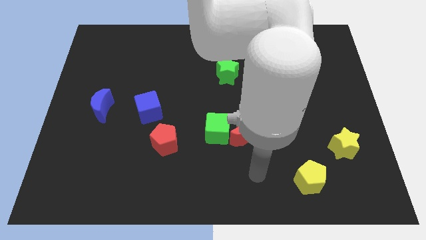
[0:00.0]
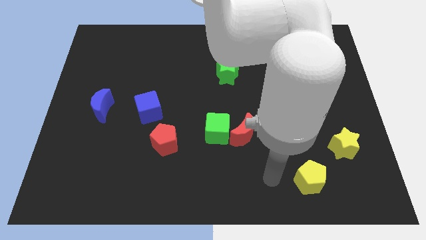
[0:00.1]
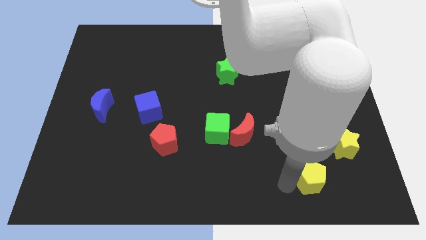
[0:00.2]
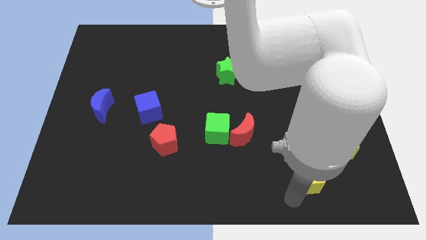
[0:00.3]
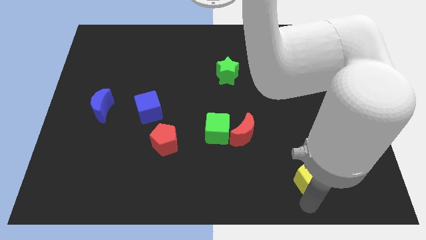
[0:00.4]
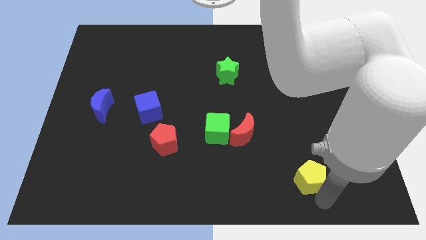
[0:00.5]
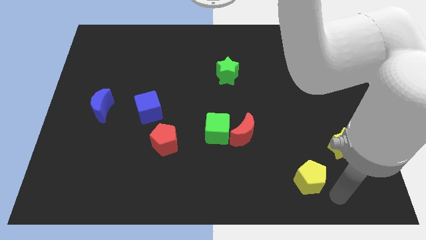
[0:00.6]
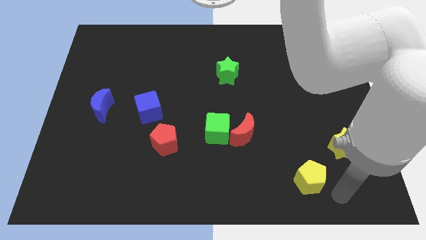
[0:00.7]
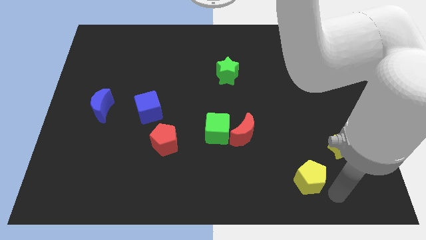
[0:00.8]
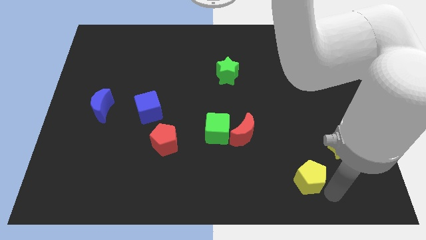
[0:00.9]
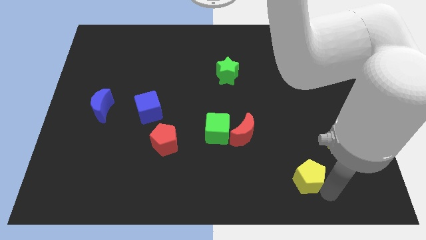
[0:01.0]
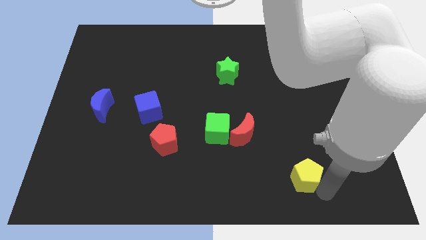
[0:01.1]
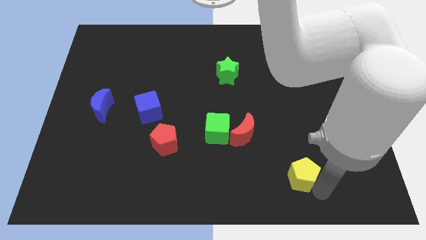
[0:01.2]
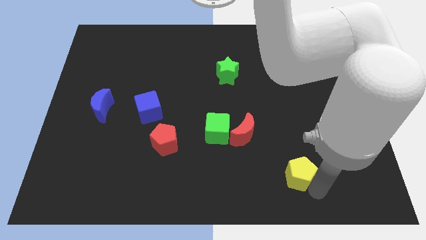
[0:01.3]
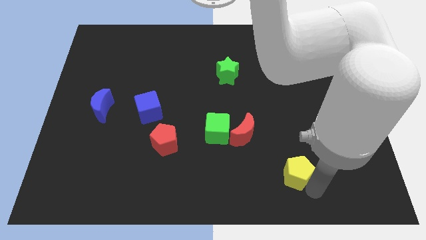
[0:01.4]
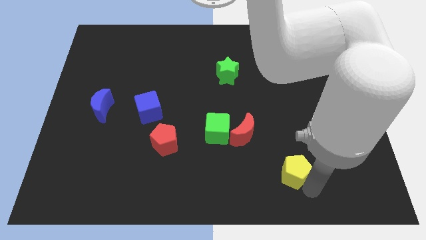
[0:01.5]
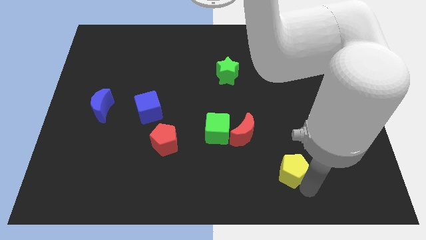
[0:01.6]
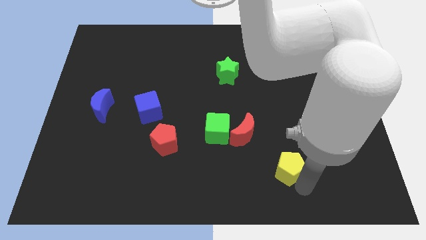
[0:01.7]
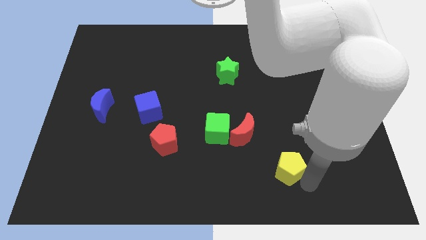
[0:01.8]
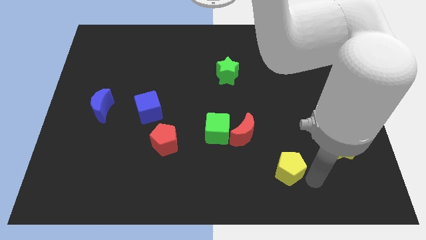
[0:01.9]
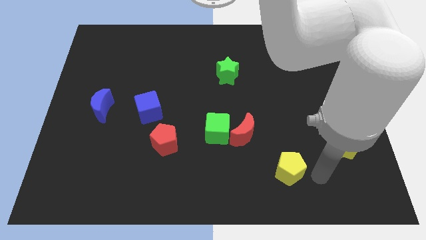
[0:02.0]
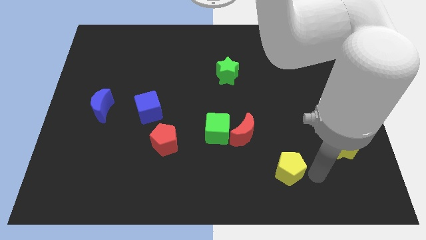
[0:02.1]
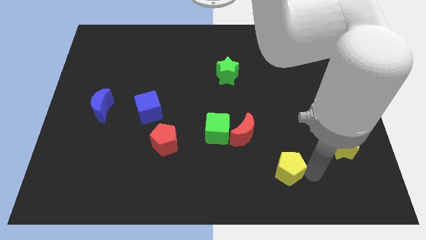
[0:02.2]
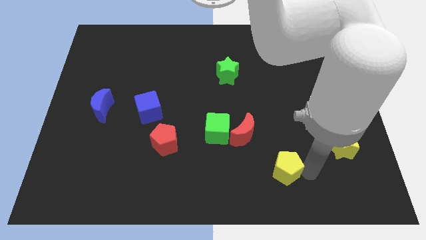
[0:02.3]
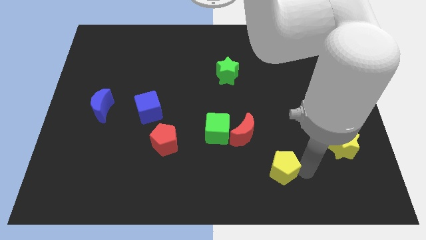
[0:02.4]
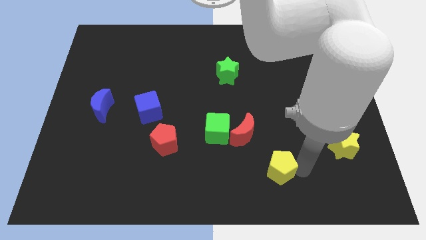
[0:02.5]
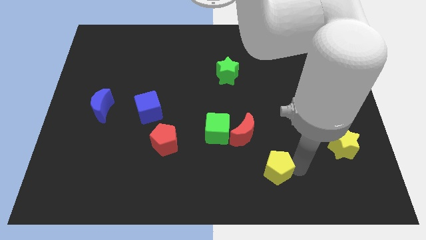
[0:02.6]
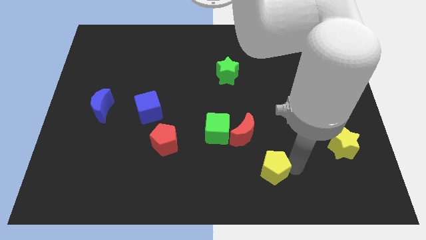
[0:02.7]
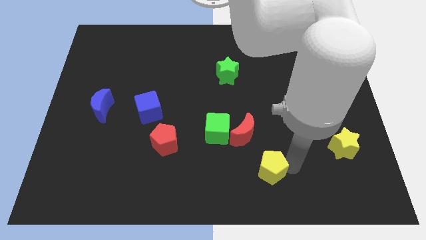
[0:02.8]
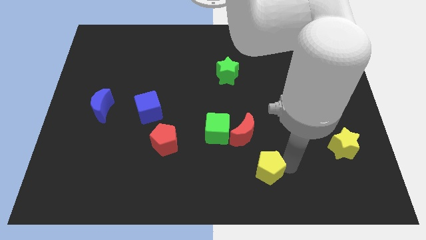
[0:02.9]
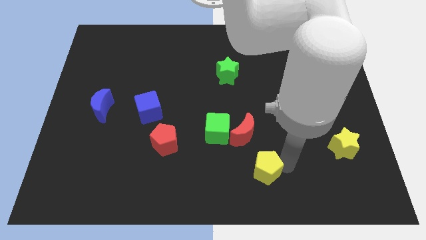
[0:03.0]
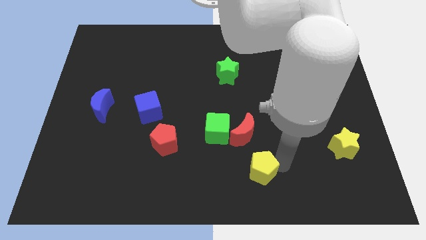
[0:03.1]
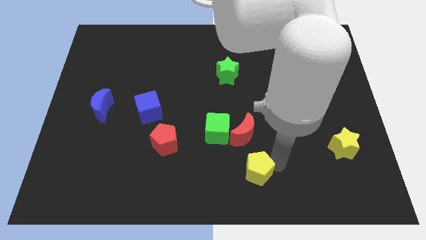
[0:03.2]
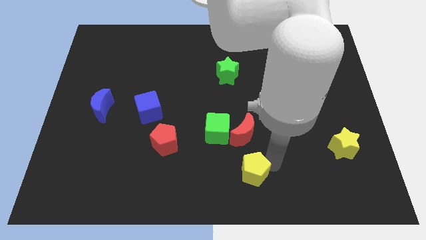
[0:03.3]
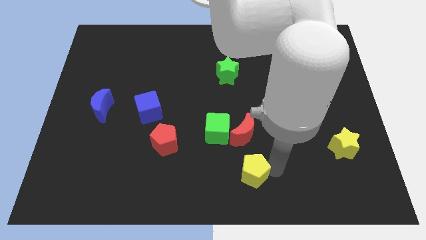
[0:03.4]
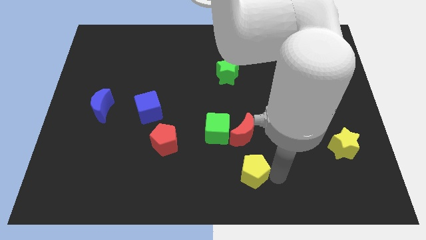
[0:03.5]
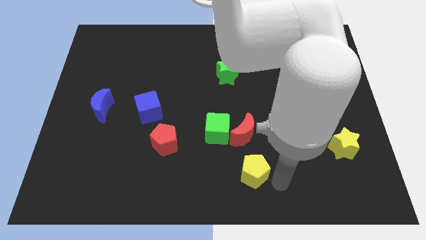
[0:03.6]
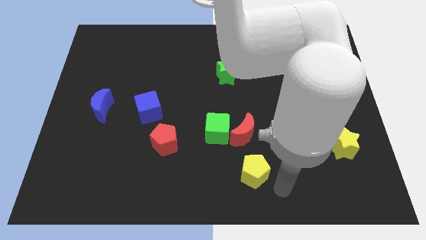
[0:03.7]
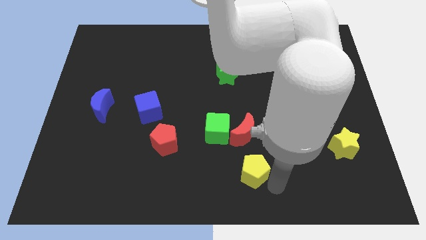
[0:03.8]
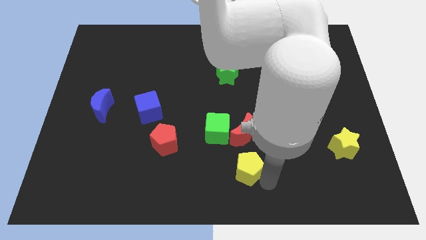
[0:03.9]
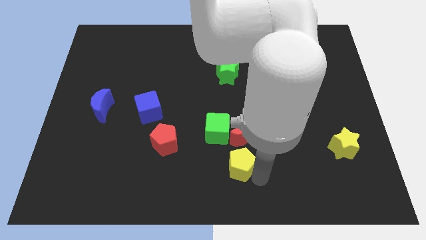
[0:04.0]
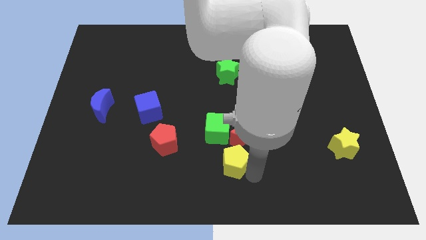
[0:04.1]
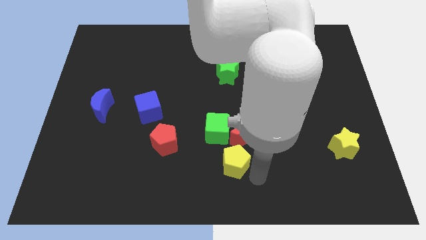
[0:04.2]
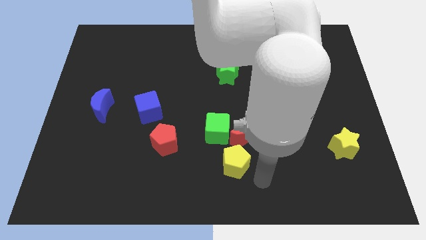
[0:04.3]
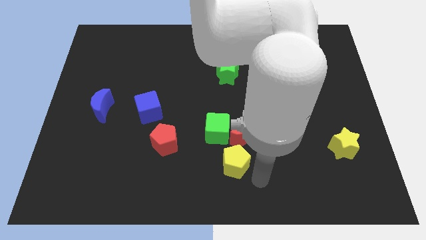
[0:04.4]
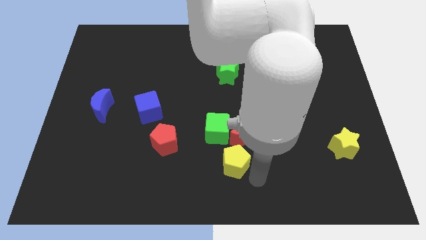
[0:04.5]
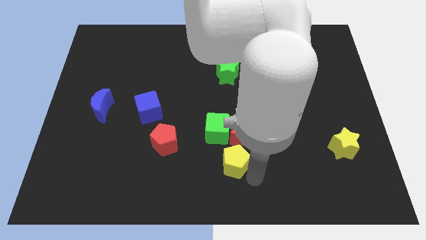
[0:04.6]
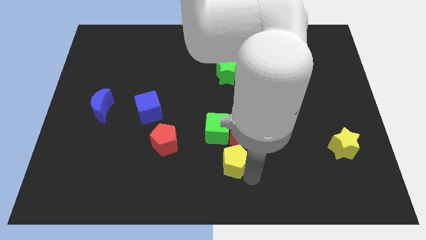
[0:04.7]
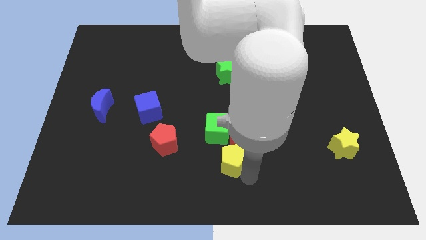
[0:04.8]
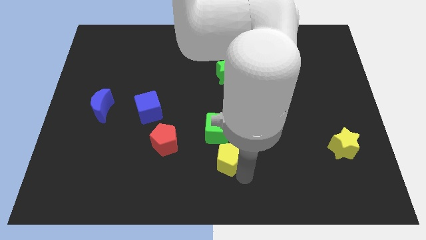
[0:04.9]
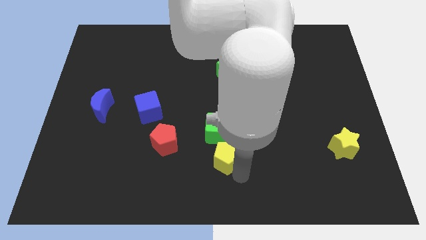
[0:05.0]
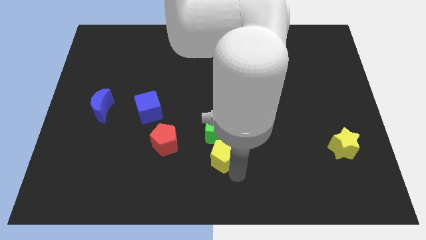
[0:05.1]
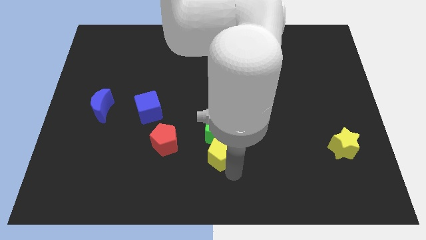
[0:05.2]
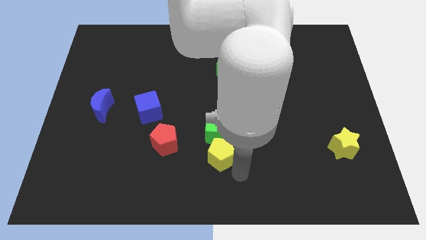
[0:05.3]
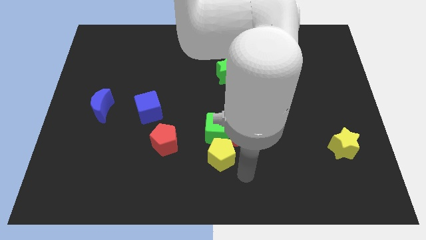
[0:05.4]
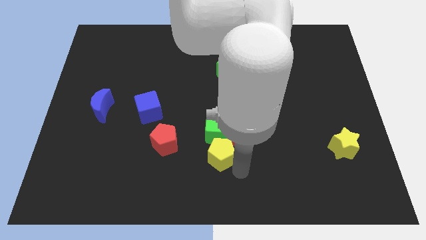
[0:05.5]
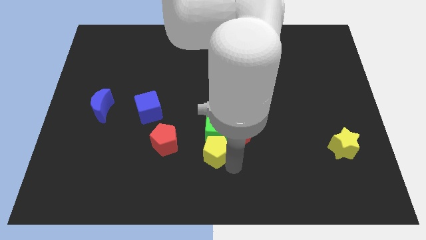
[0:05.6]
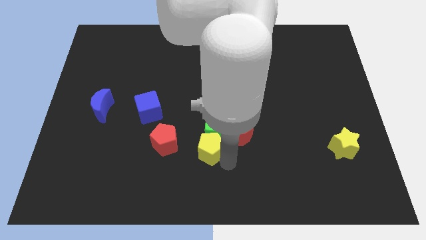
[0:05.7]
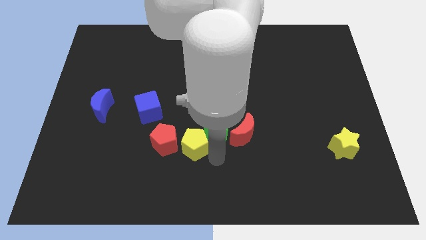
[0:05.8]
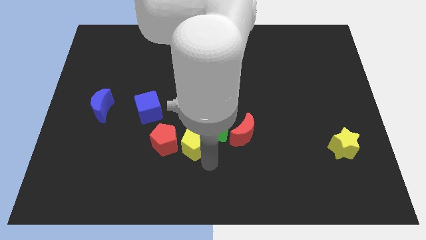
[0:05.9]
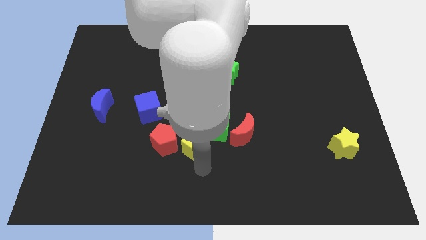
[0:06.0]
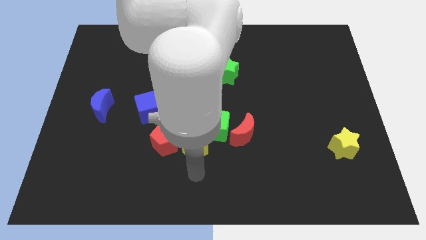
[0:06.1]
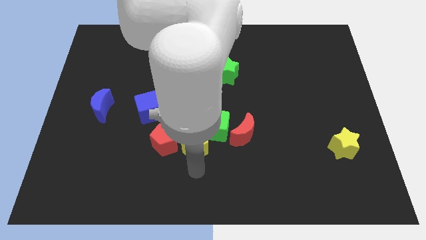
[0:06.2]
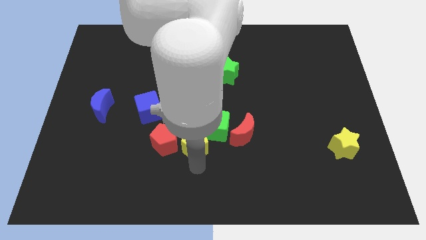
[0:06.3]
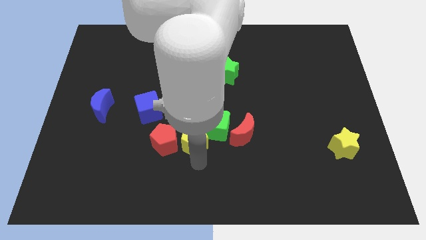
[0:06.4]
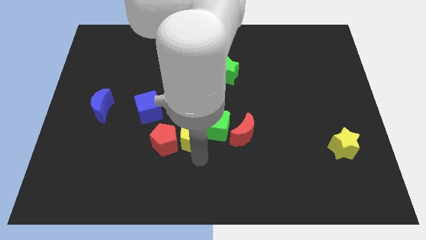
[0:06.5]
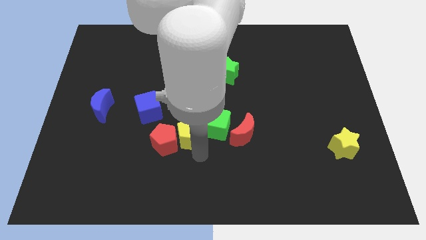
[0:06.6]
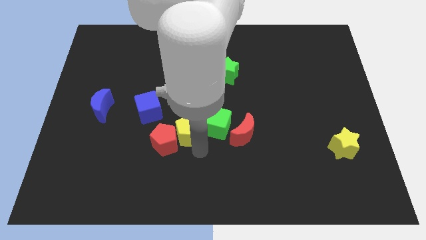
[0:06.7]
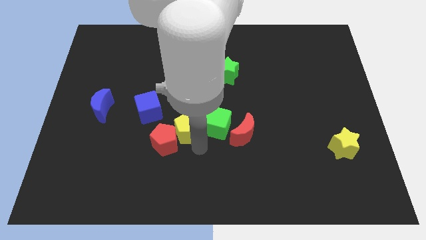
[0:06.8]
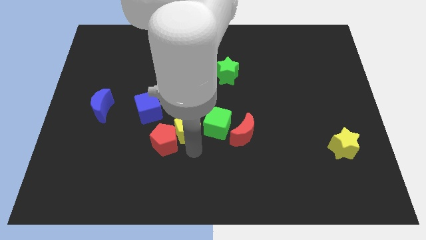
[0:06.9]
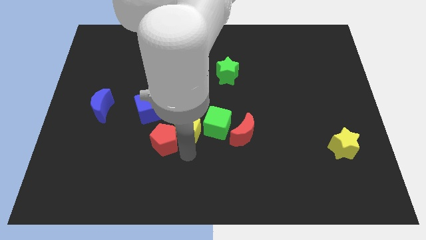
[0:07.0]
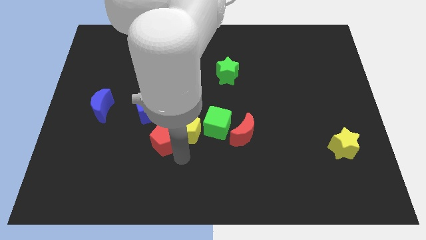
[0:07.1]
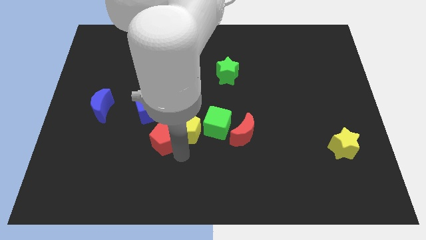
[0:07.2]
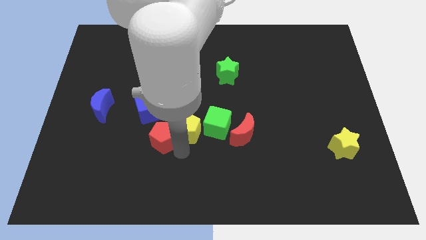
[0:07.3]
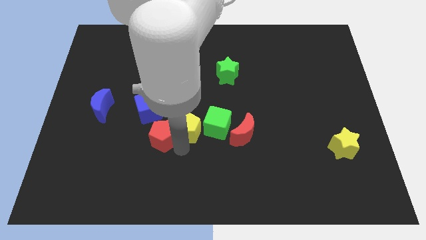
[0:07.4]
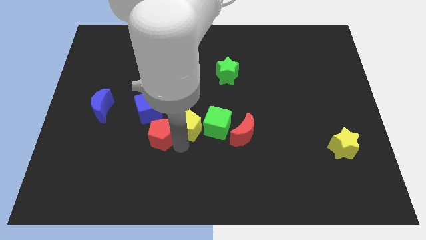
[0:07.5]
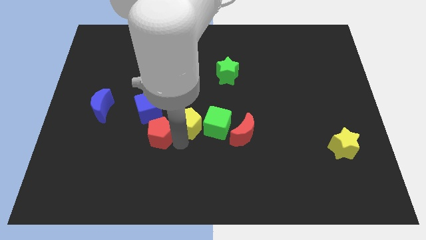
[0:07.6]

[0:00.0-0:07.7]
push the yellow pentagon to the top left side of the green cube
